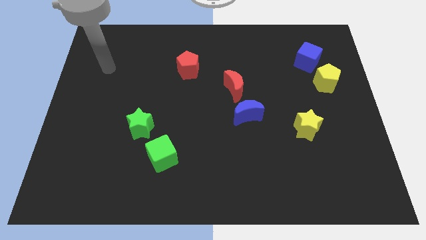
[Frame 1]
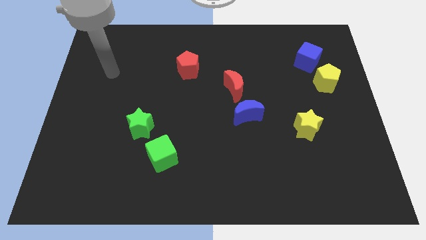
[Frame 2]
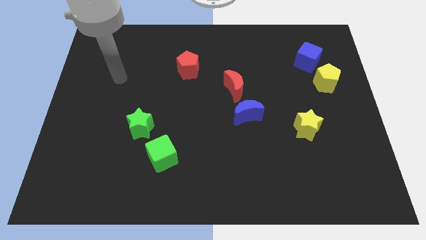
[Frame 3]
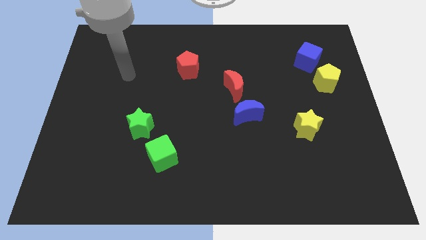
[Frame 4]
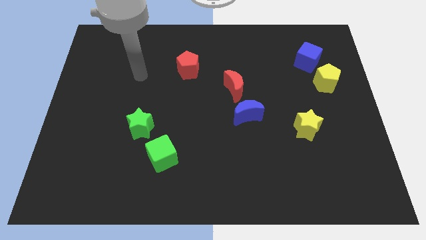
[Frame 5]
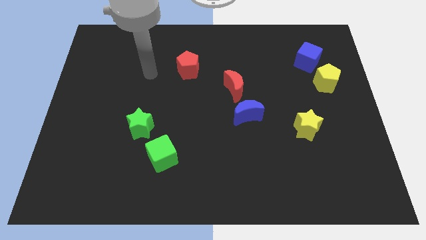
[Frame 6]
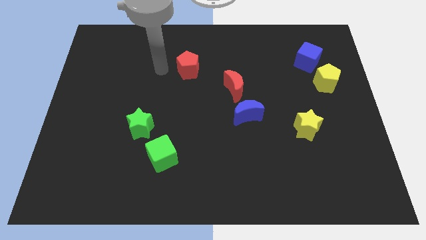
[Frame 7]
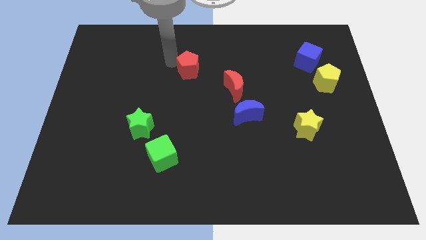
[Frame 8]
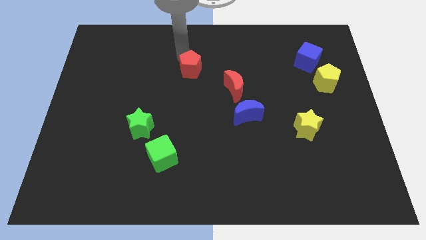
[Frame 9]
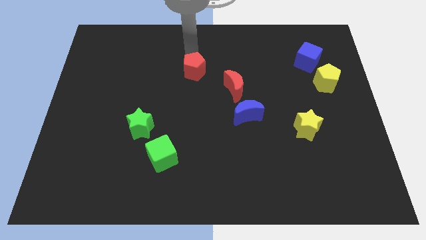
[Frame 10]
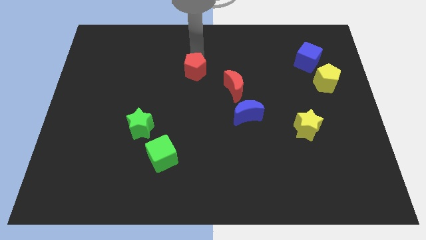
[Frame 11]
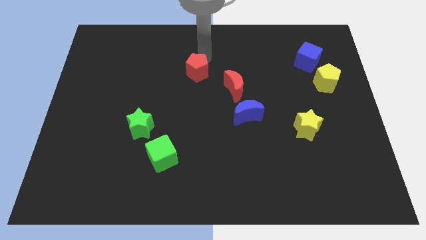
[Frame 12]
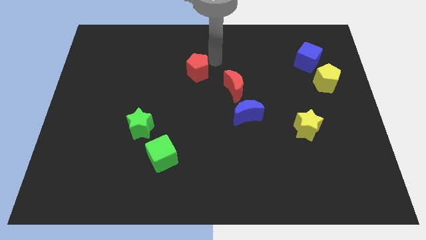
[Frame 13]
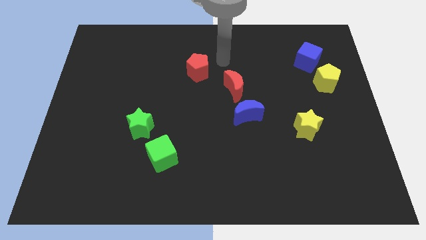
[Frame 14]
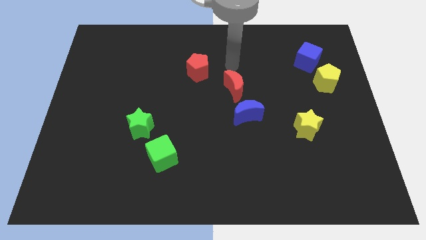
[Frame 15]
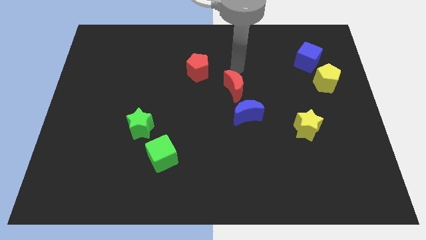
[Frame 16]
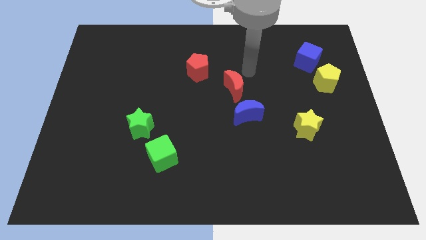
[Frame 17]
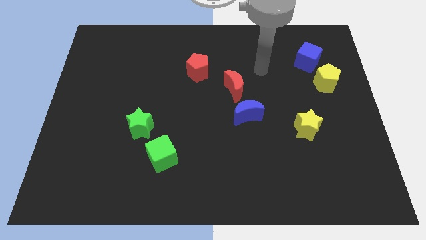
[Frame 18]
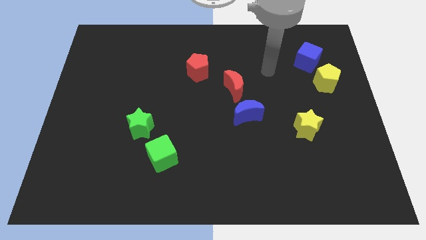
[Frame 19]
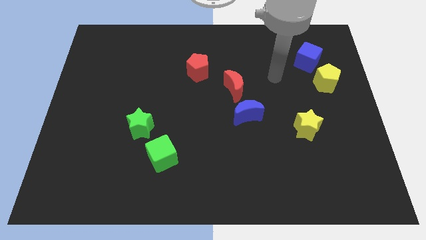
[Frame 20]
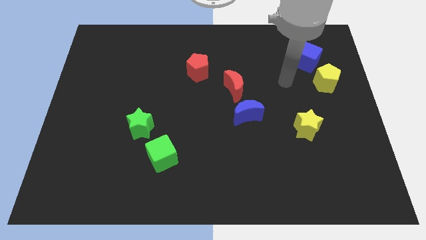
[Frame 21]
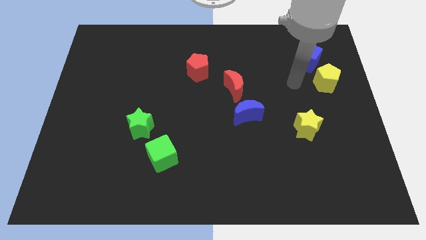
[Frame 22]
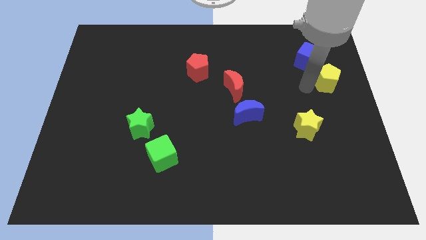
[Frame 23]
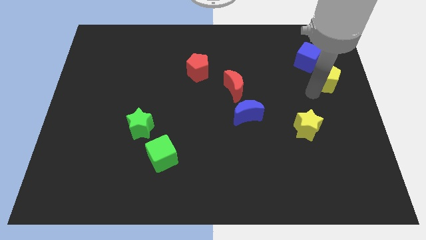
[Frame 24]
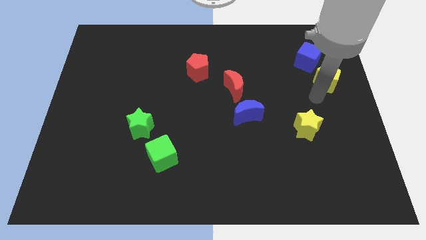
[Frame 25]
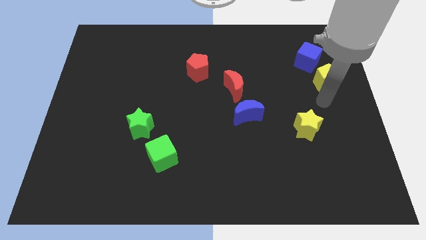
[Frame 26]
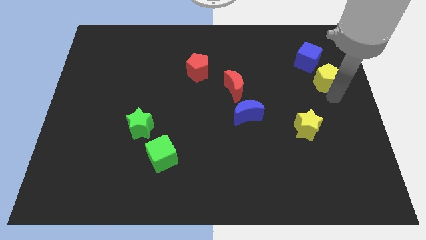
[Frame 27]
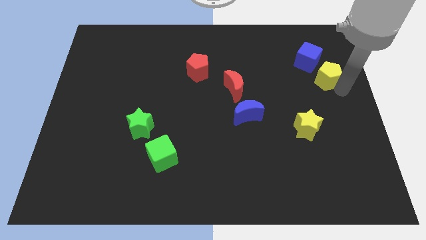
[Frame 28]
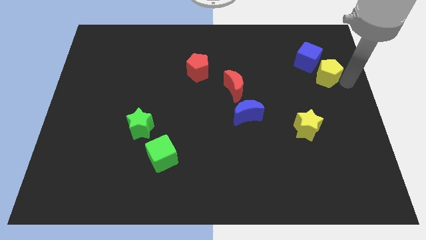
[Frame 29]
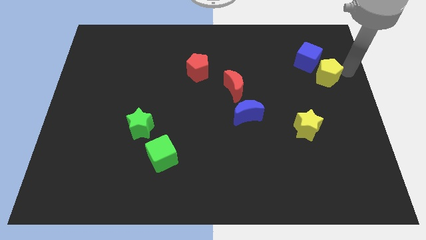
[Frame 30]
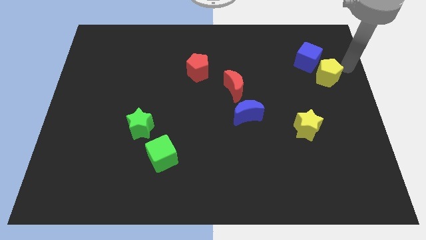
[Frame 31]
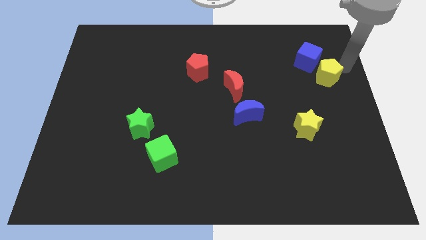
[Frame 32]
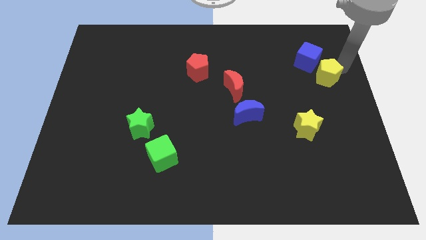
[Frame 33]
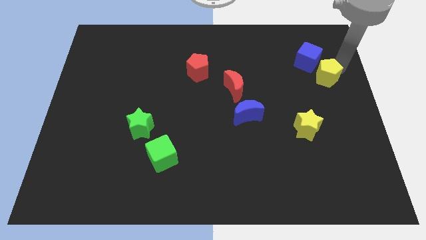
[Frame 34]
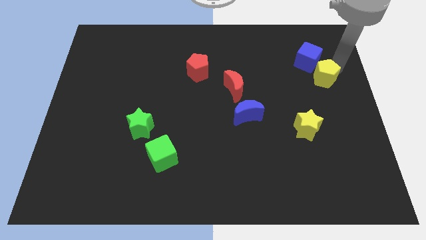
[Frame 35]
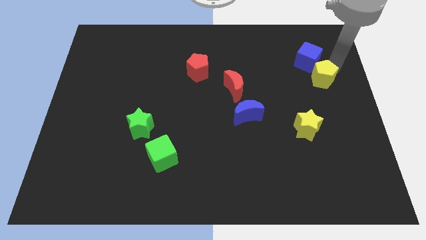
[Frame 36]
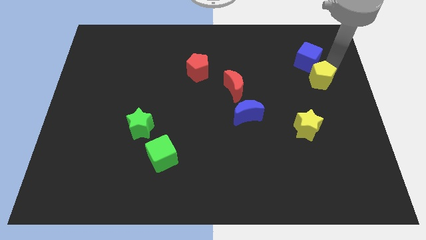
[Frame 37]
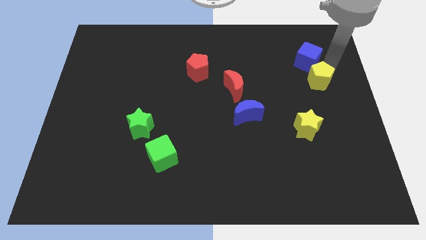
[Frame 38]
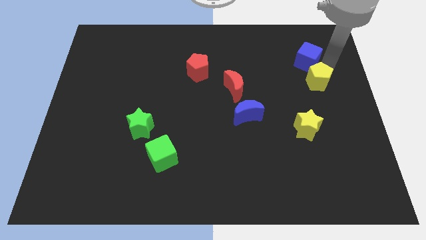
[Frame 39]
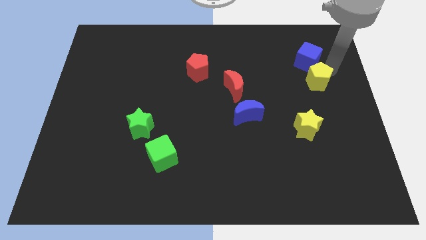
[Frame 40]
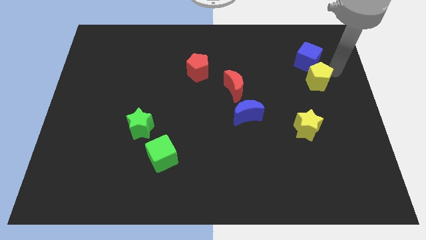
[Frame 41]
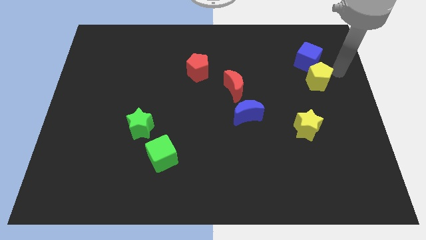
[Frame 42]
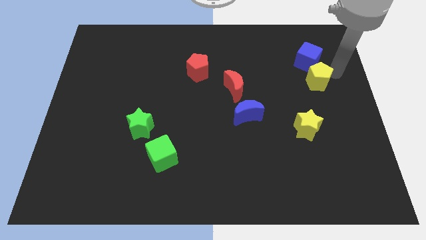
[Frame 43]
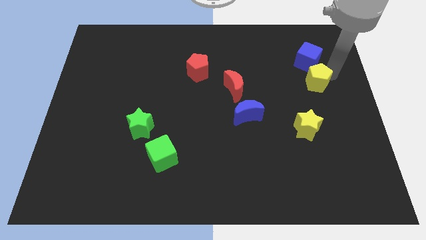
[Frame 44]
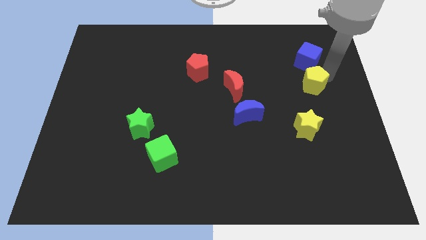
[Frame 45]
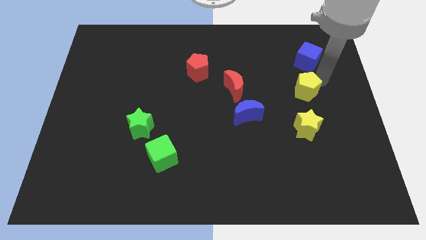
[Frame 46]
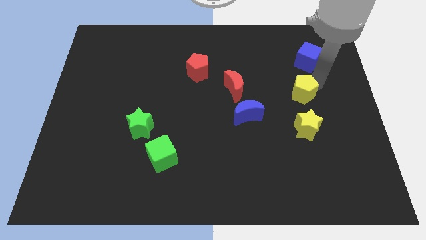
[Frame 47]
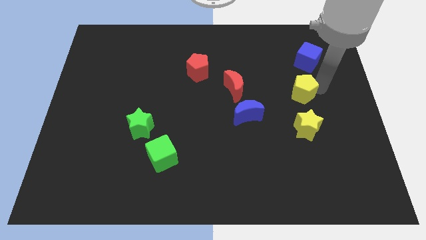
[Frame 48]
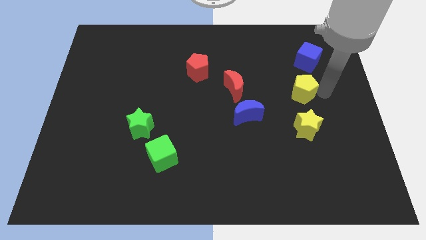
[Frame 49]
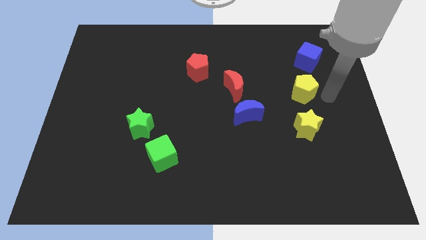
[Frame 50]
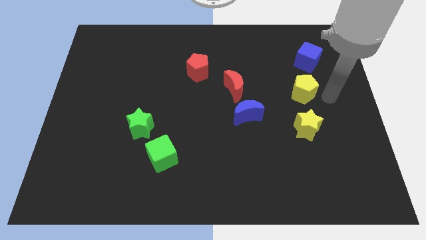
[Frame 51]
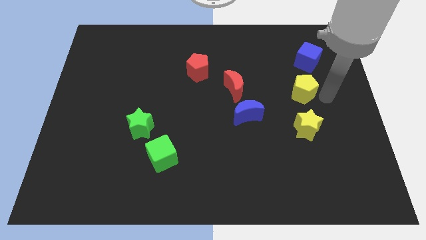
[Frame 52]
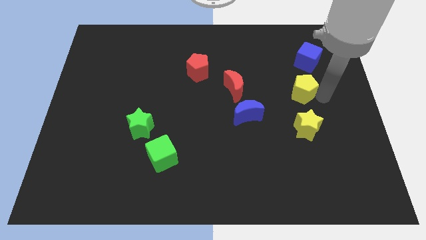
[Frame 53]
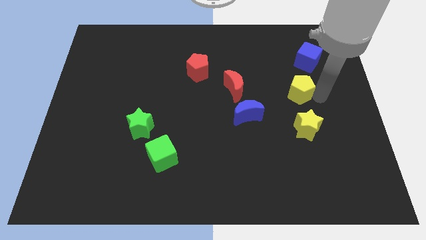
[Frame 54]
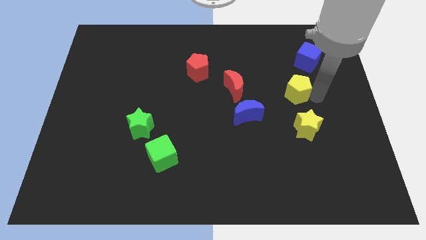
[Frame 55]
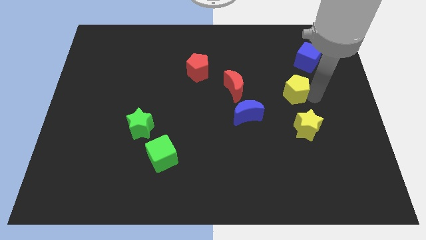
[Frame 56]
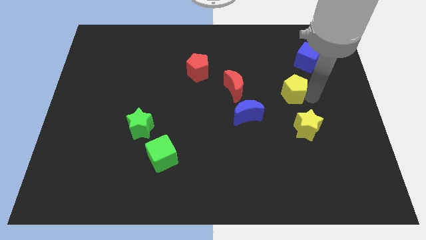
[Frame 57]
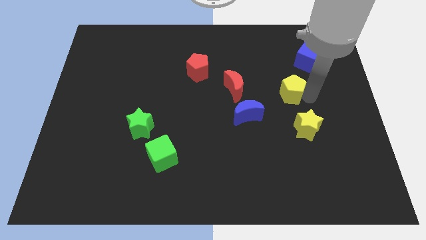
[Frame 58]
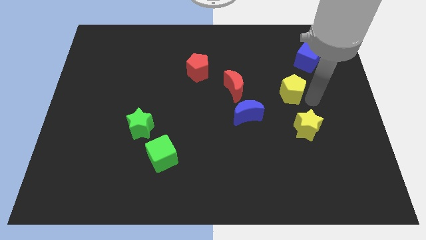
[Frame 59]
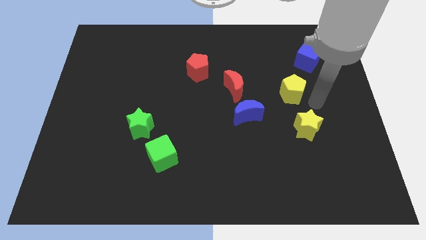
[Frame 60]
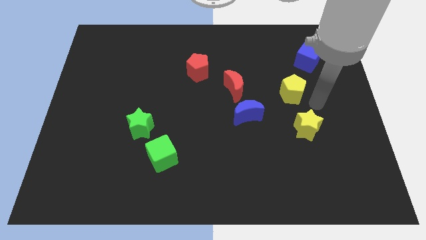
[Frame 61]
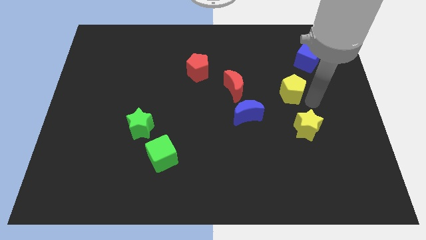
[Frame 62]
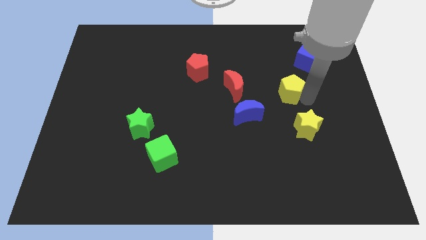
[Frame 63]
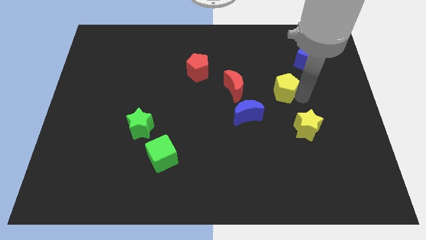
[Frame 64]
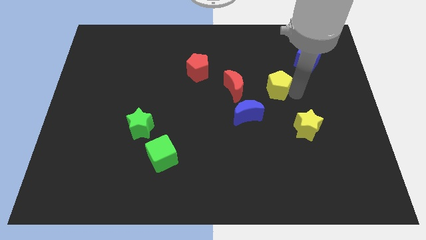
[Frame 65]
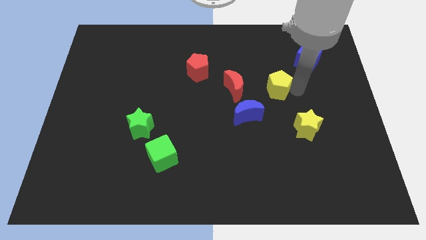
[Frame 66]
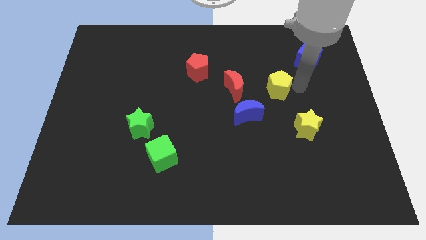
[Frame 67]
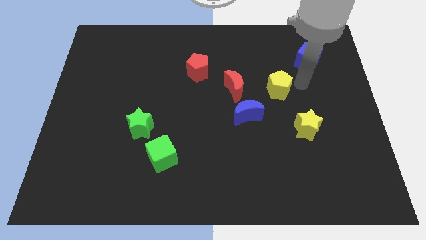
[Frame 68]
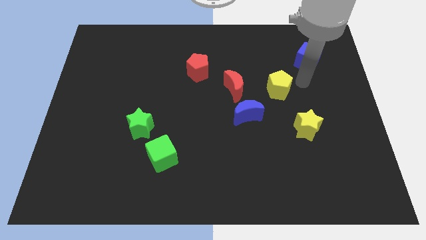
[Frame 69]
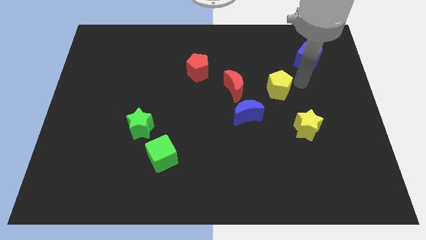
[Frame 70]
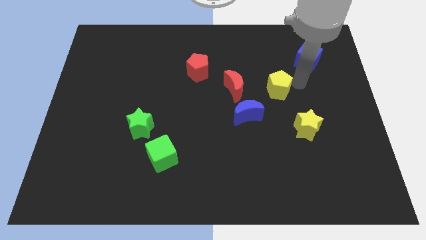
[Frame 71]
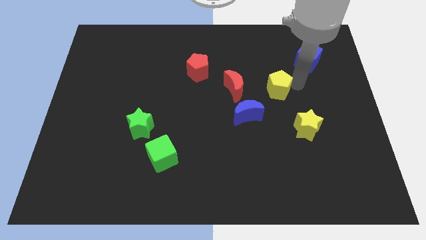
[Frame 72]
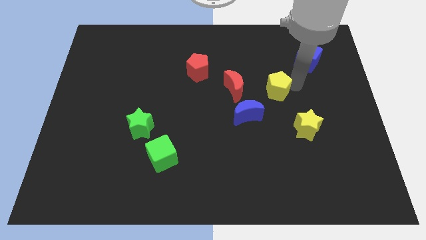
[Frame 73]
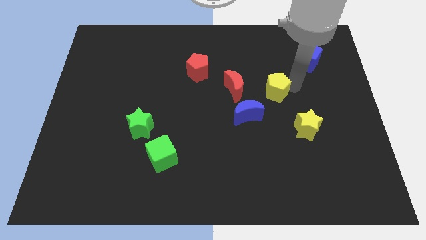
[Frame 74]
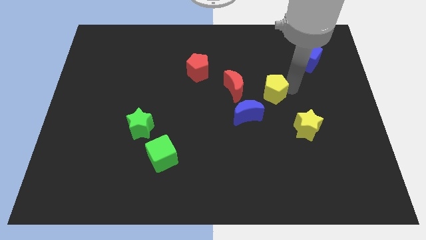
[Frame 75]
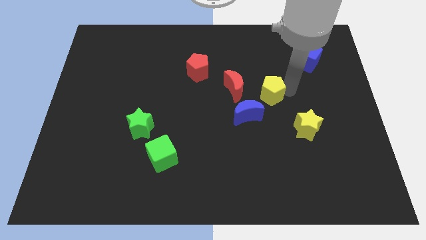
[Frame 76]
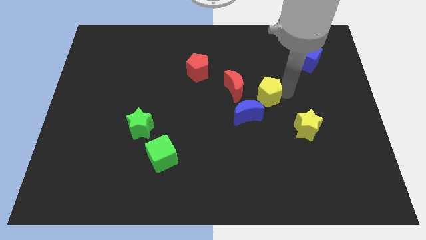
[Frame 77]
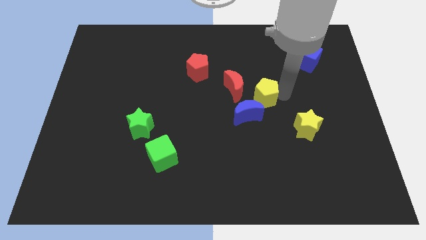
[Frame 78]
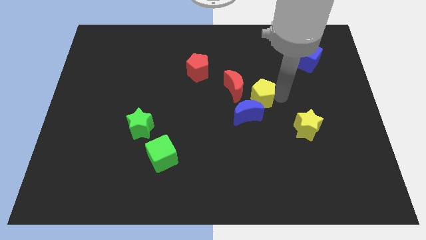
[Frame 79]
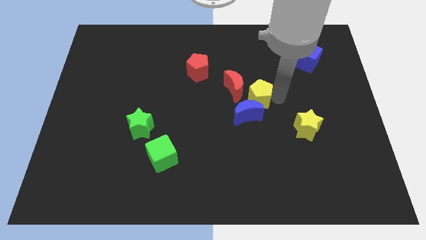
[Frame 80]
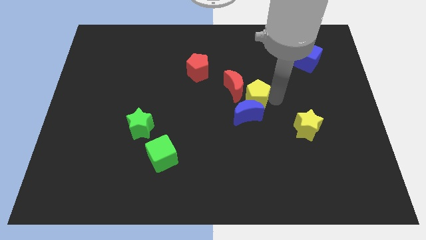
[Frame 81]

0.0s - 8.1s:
push the yellow pentagon to the red moon
